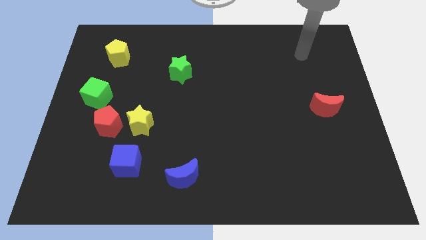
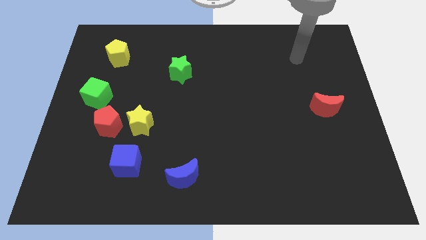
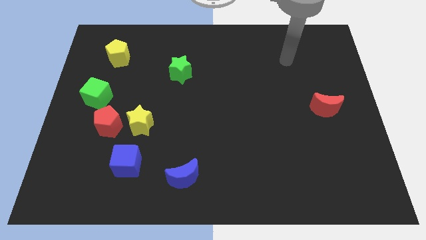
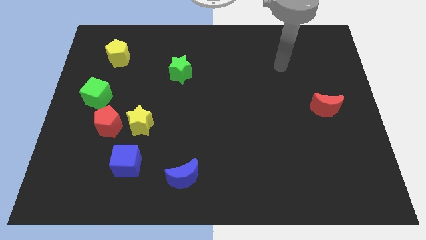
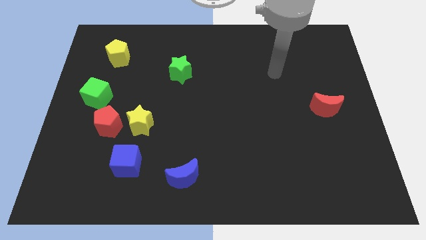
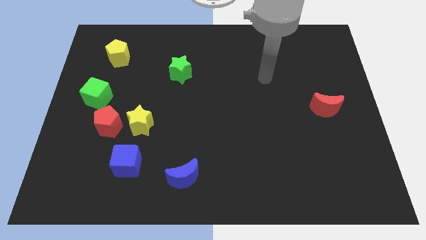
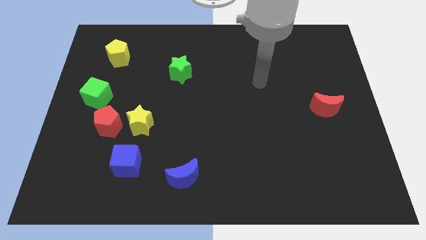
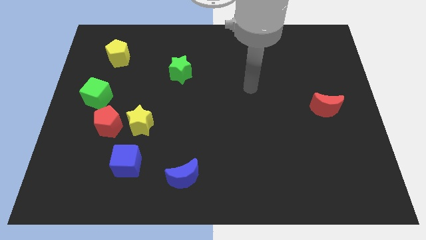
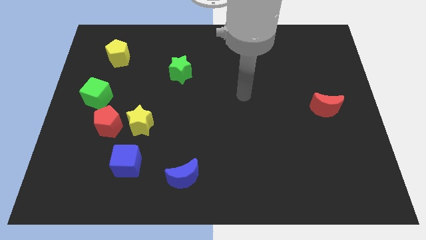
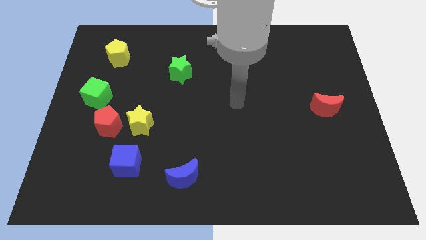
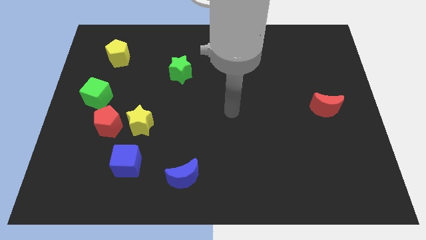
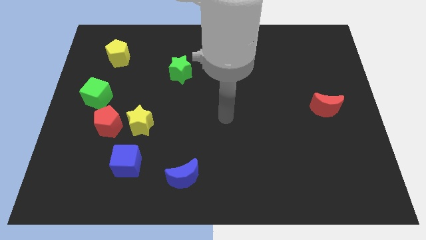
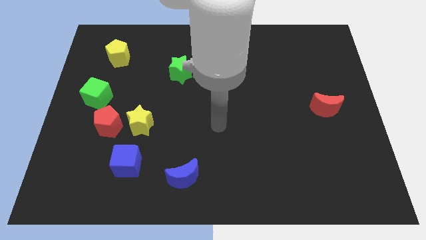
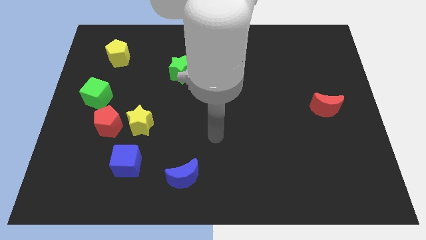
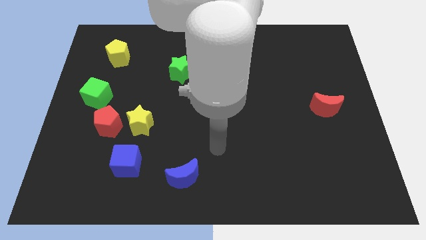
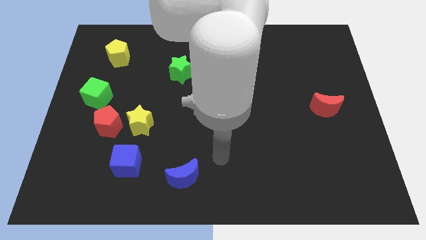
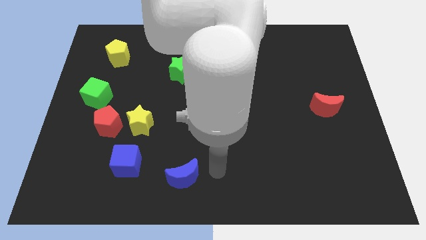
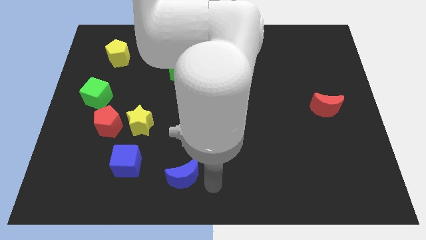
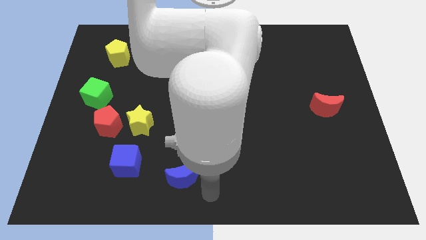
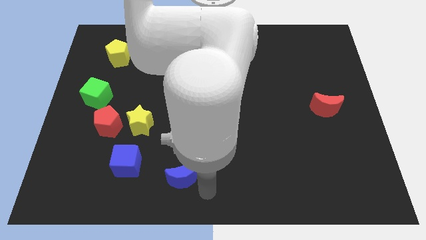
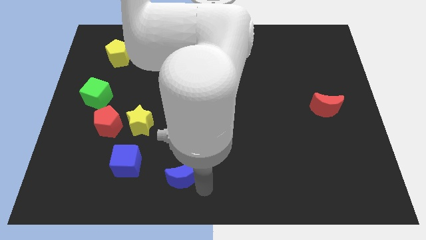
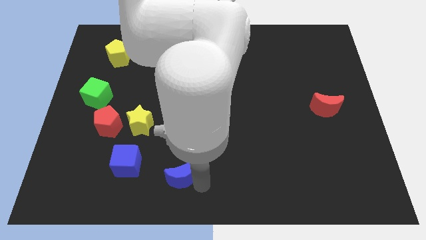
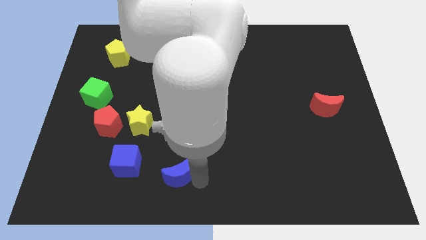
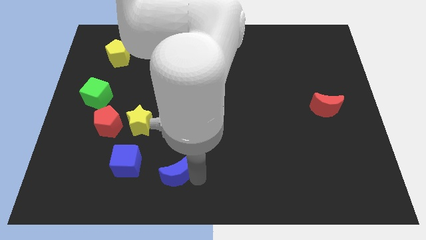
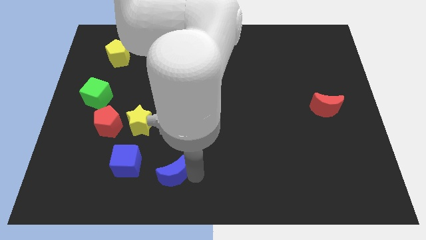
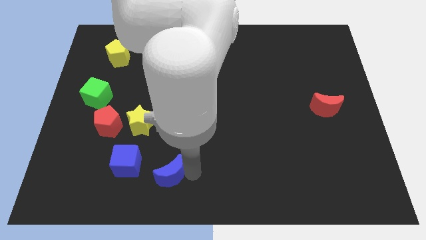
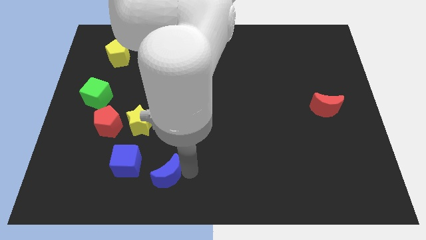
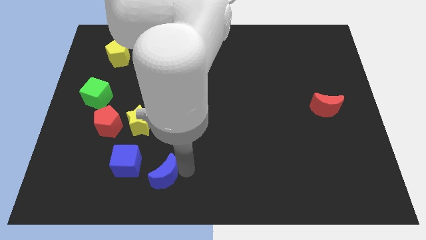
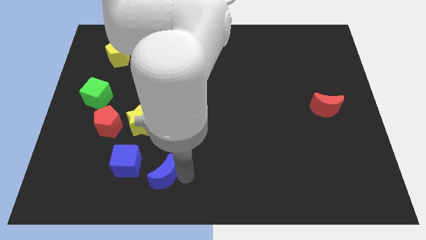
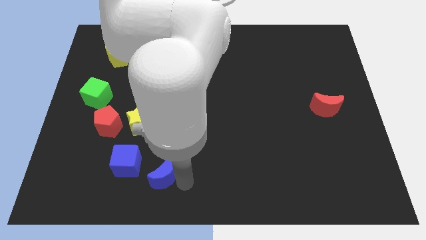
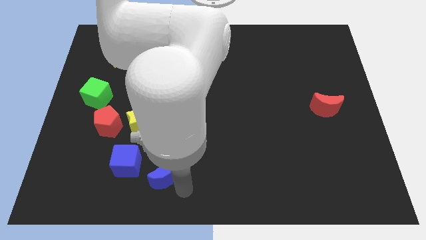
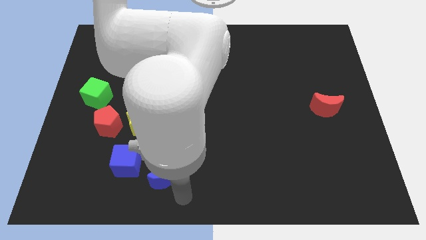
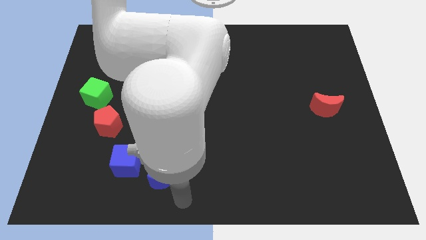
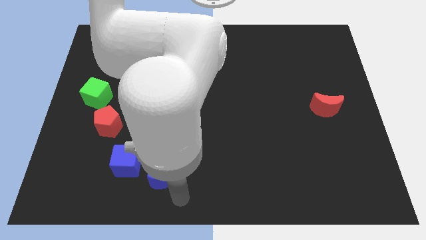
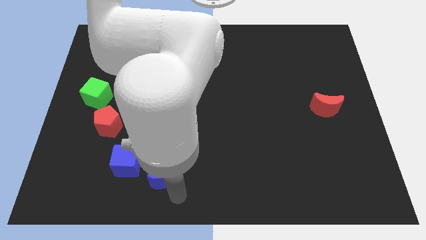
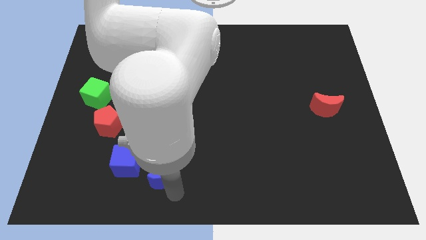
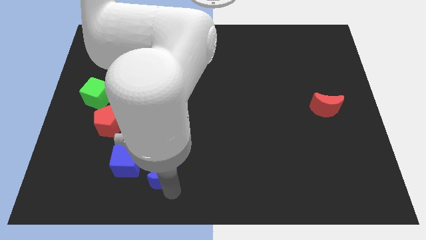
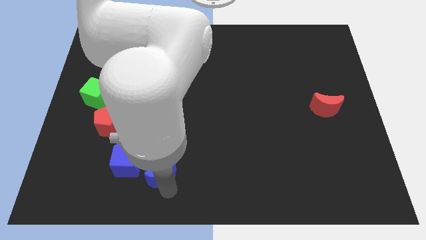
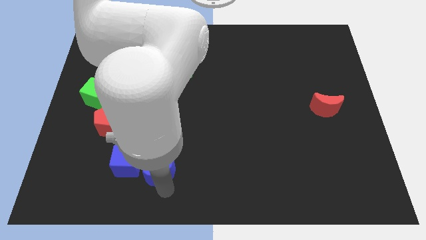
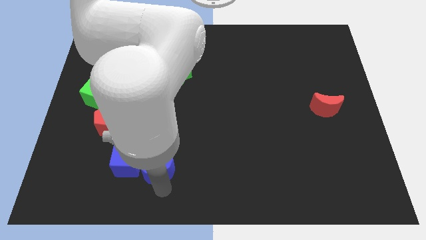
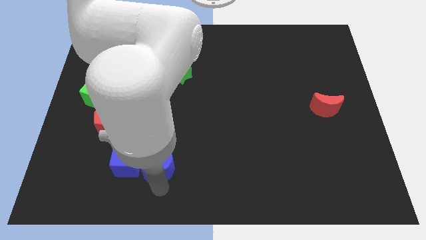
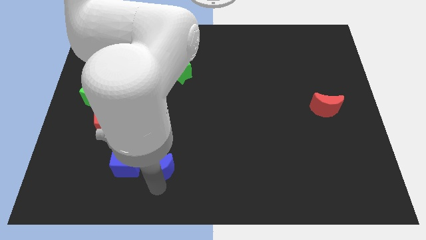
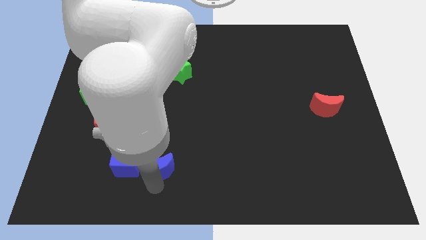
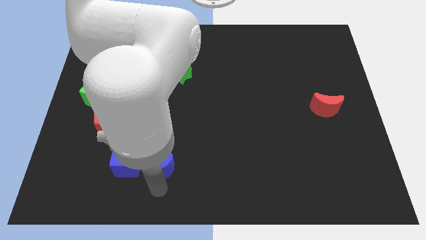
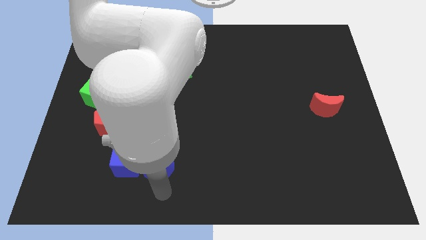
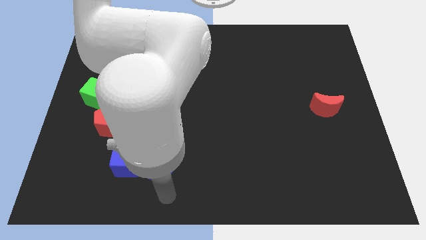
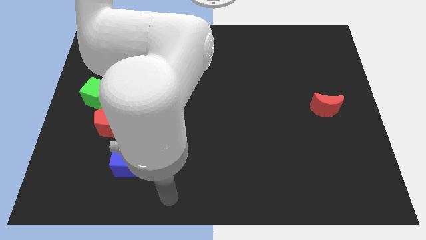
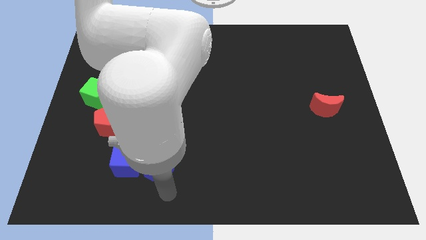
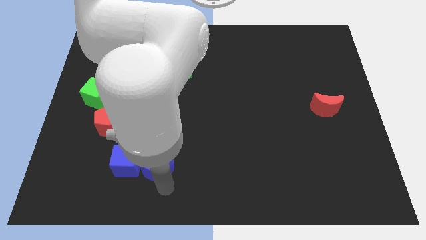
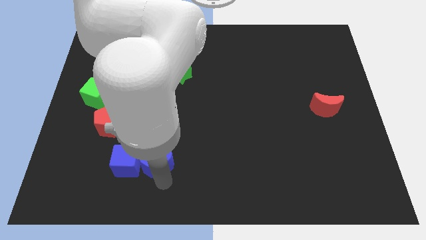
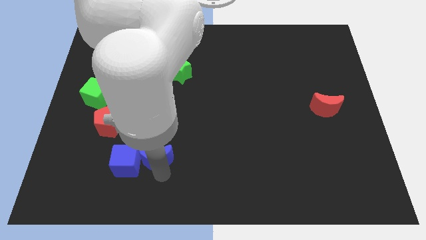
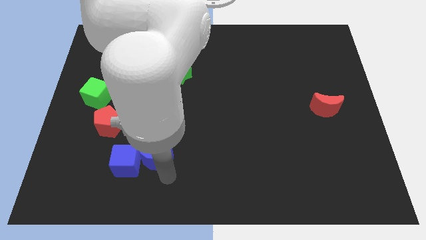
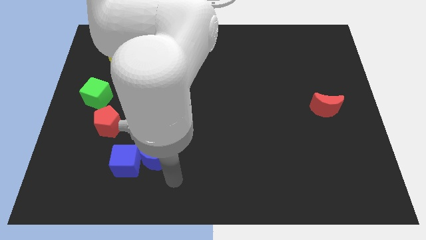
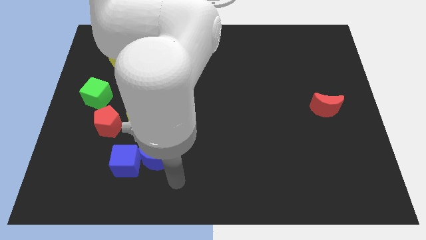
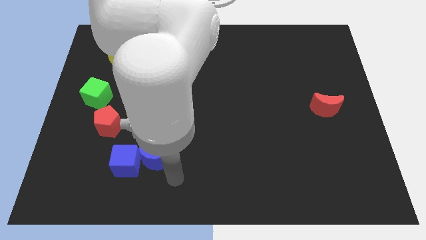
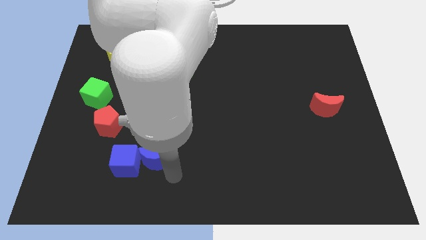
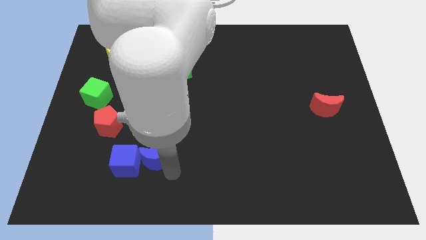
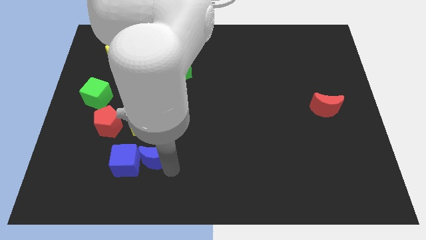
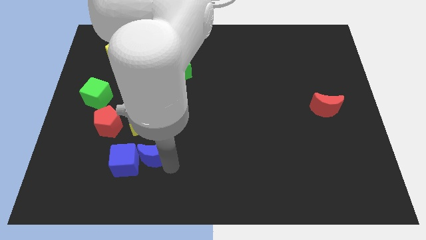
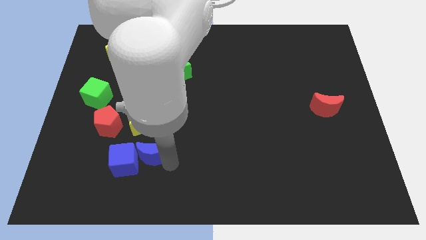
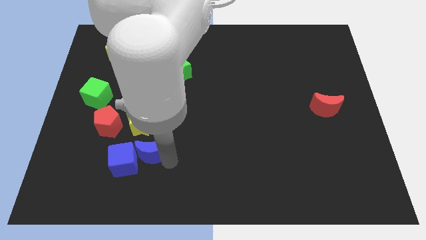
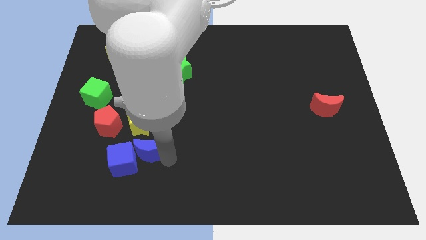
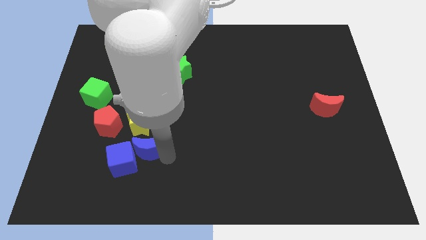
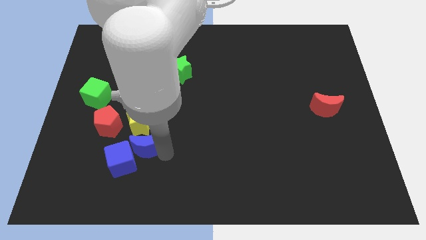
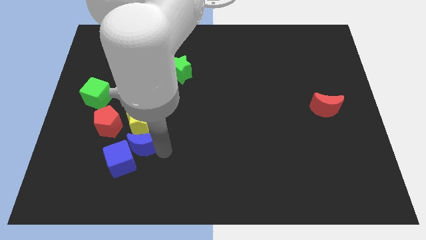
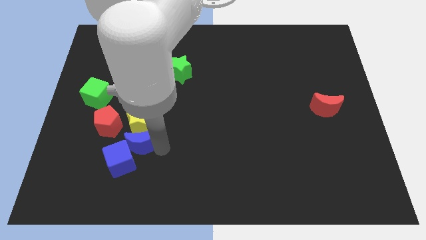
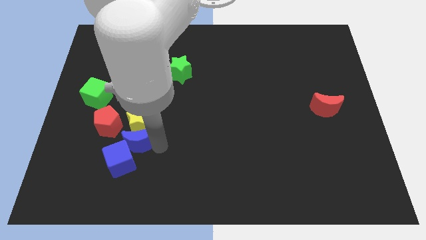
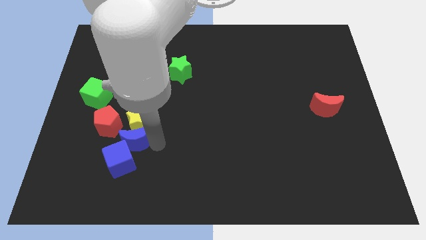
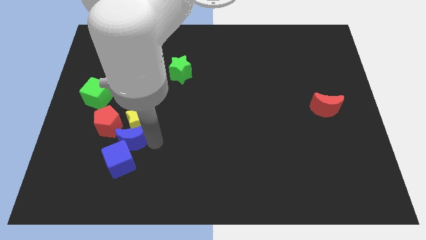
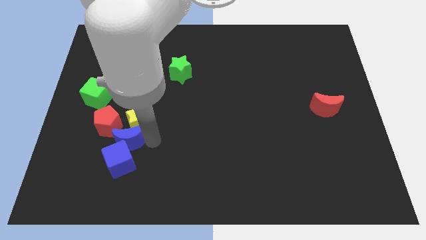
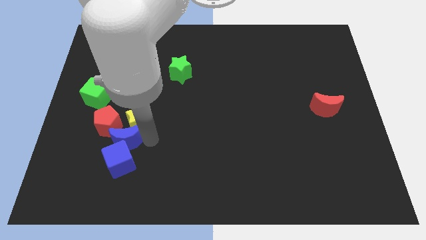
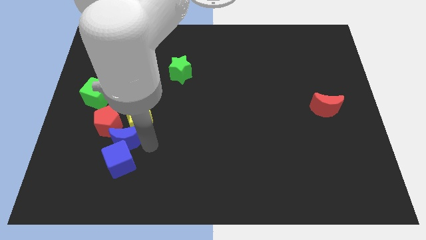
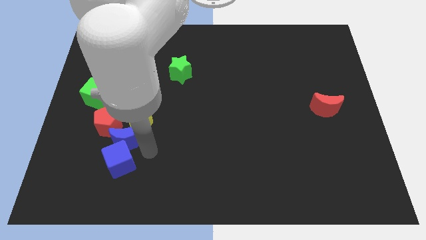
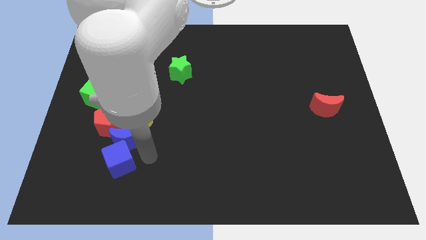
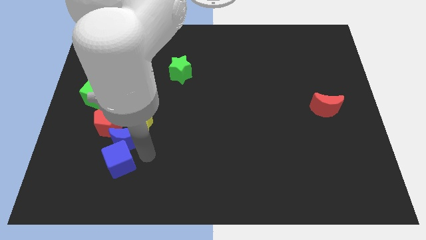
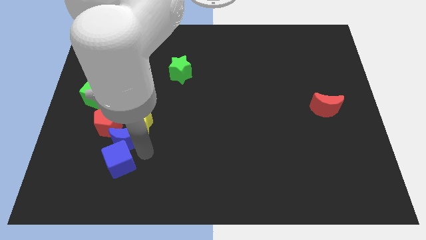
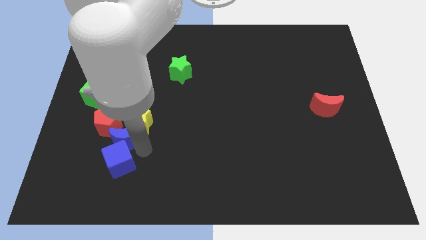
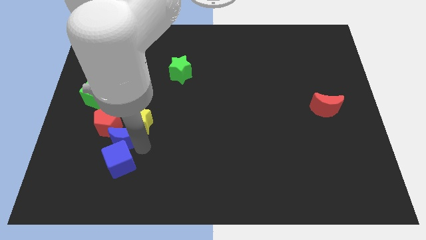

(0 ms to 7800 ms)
move the blue moon next to the red pentagon
